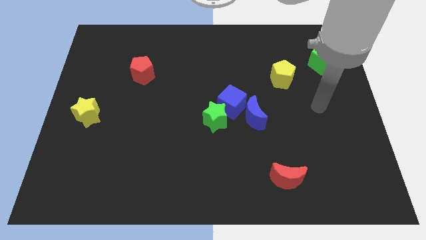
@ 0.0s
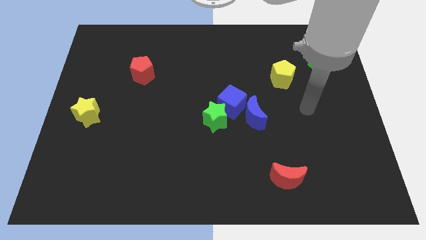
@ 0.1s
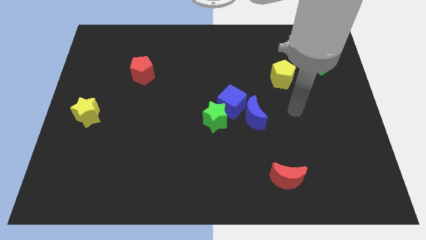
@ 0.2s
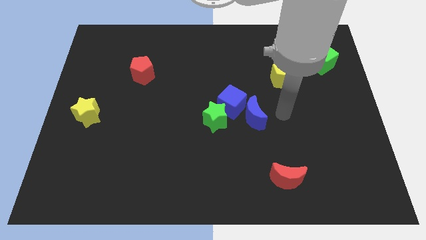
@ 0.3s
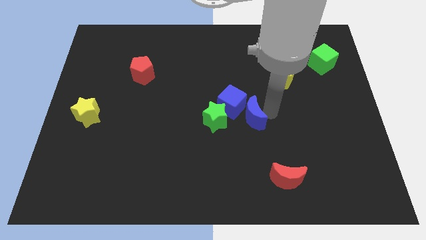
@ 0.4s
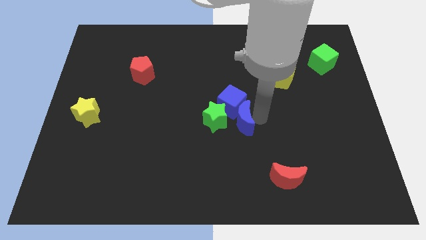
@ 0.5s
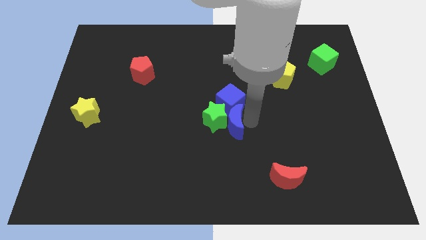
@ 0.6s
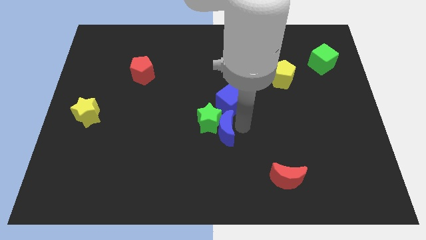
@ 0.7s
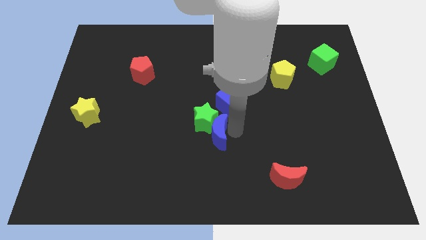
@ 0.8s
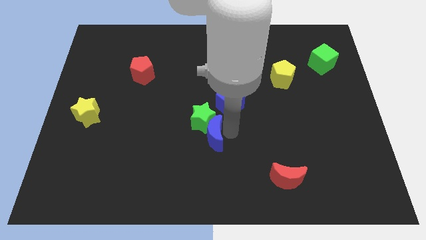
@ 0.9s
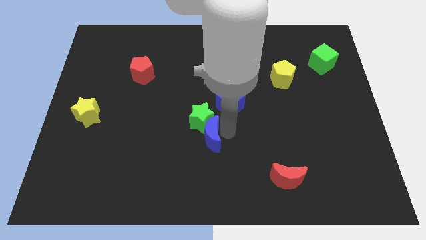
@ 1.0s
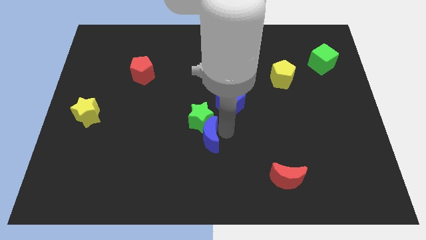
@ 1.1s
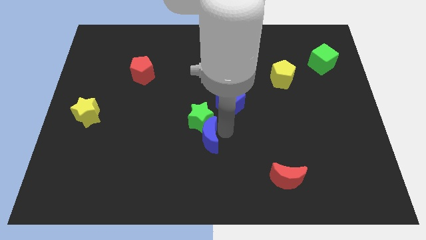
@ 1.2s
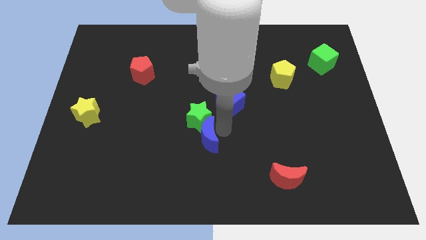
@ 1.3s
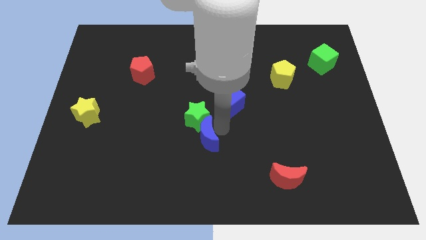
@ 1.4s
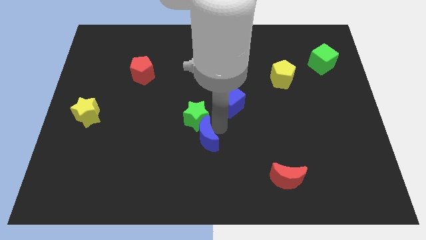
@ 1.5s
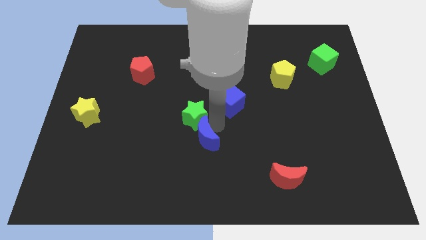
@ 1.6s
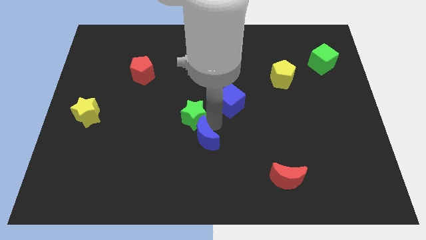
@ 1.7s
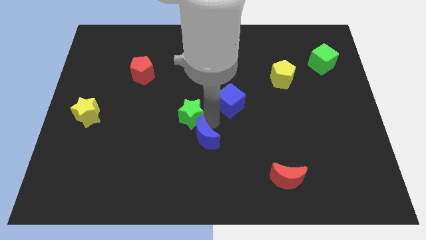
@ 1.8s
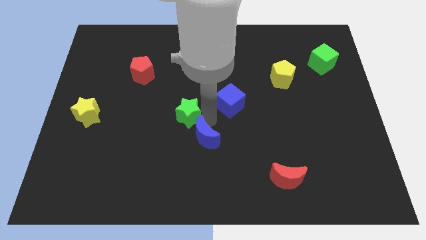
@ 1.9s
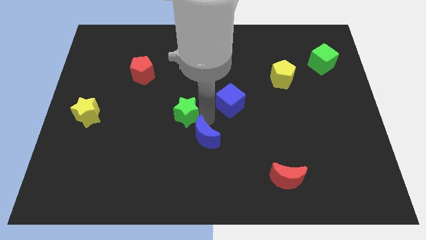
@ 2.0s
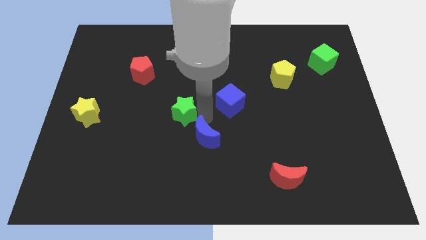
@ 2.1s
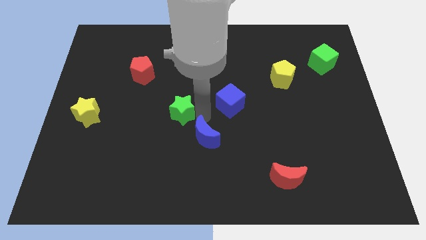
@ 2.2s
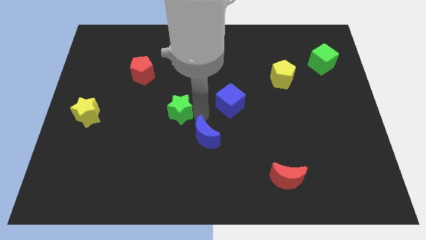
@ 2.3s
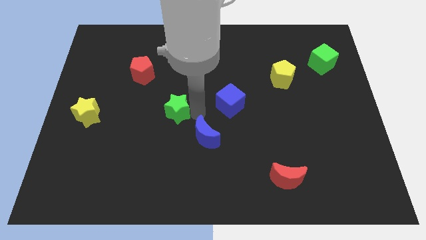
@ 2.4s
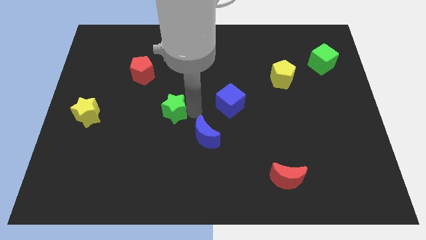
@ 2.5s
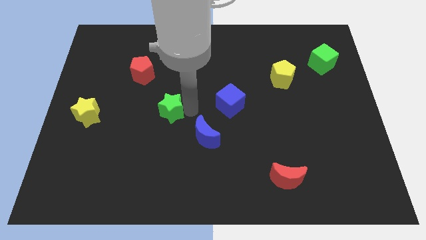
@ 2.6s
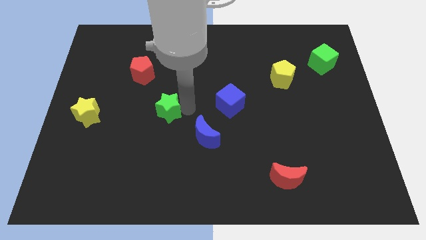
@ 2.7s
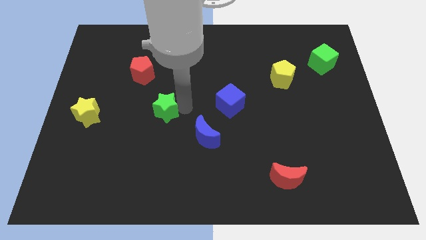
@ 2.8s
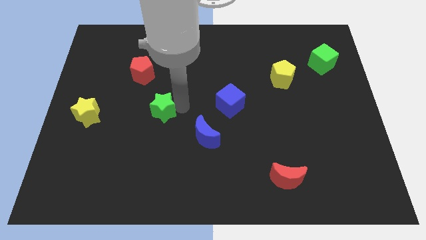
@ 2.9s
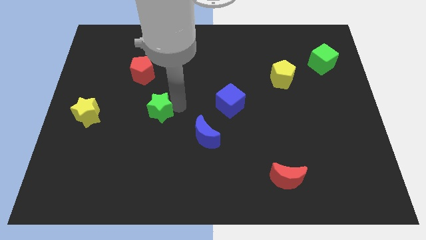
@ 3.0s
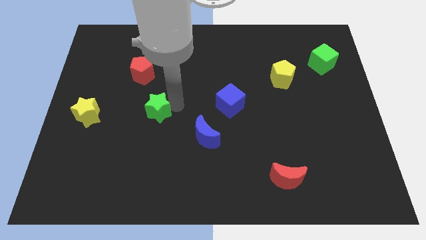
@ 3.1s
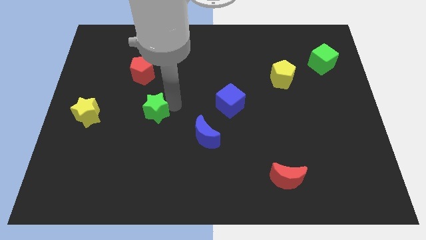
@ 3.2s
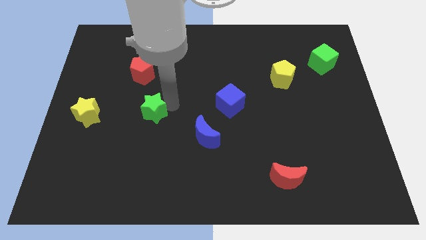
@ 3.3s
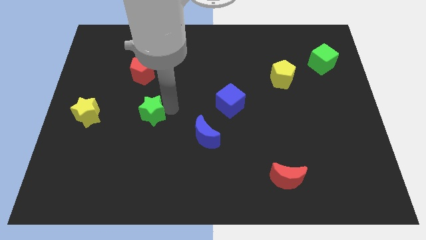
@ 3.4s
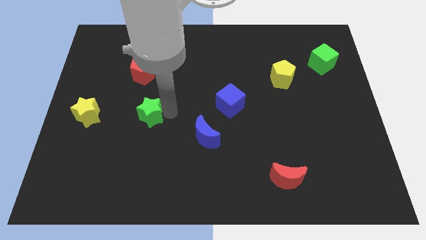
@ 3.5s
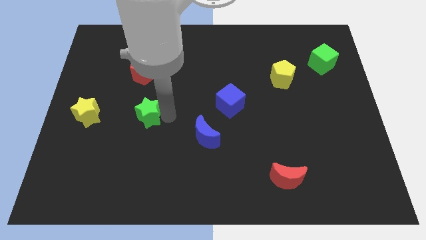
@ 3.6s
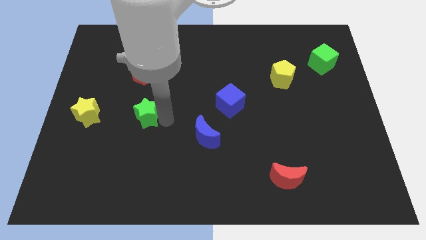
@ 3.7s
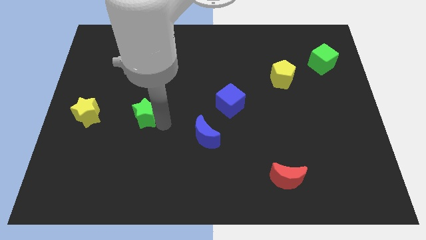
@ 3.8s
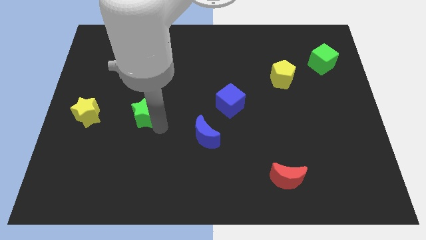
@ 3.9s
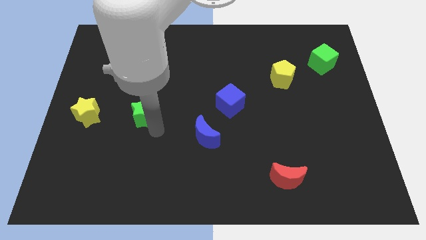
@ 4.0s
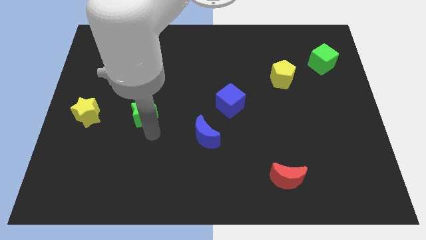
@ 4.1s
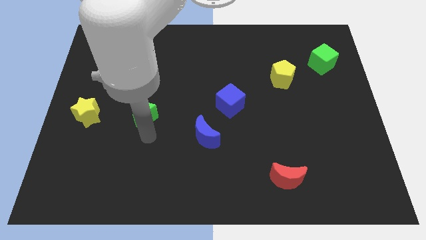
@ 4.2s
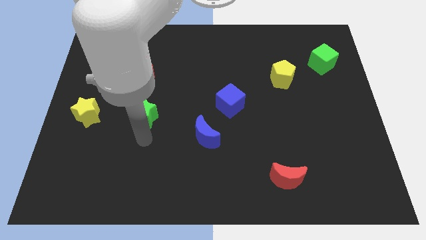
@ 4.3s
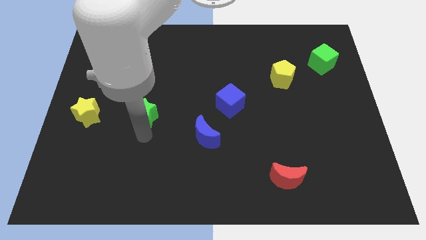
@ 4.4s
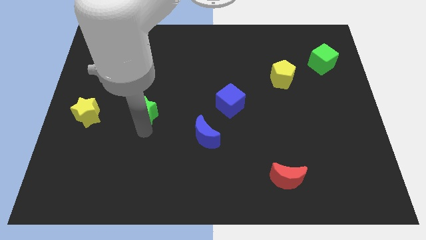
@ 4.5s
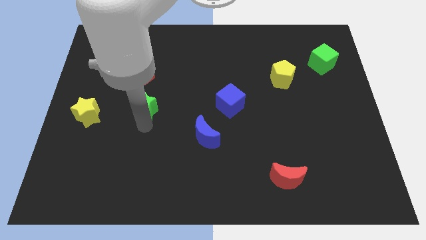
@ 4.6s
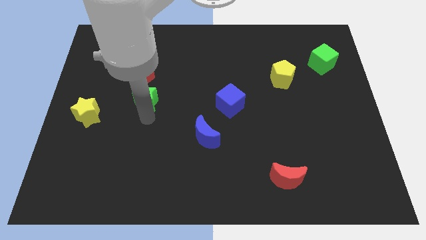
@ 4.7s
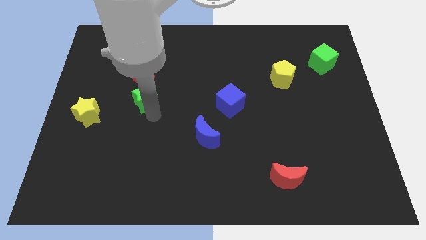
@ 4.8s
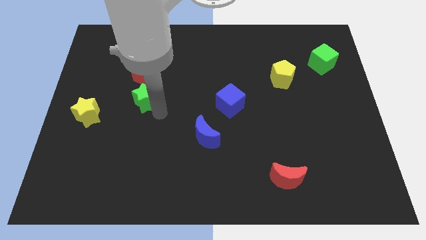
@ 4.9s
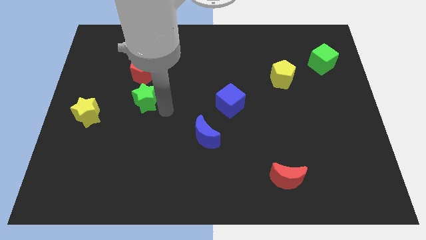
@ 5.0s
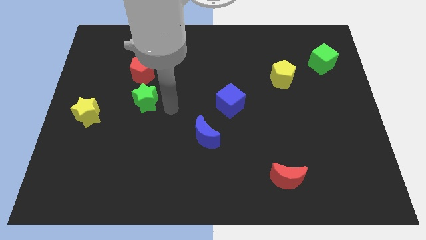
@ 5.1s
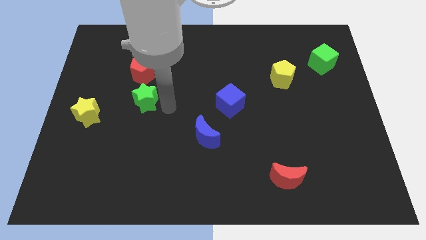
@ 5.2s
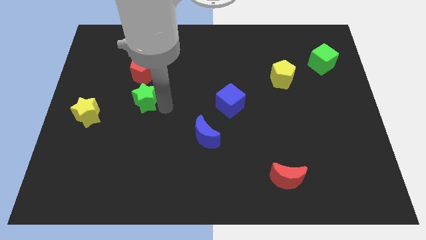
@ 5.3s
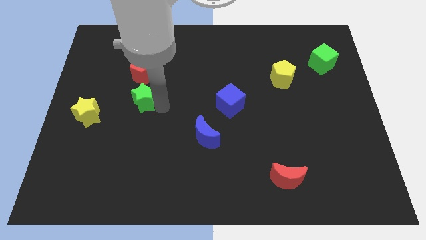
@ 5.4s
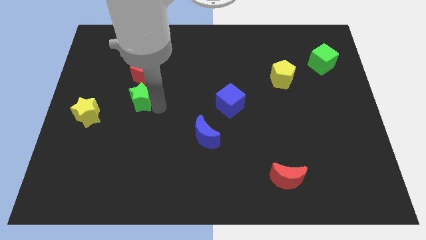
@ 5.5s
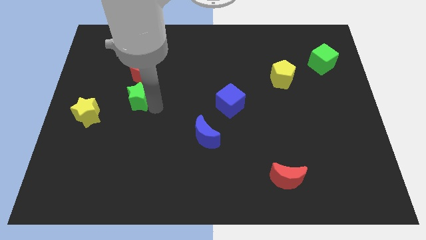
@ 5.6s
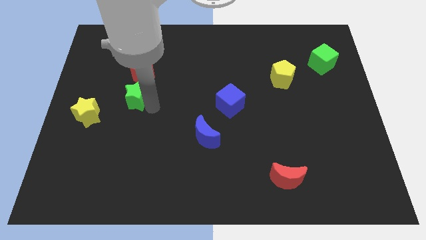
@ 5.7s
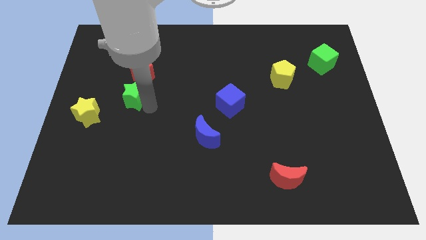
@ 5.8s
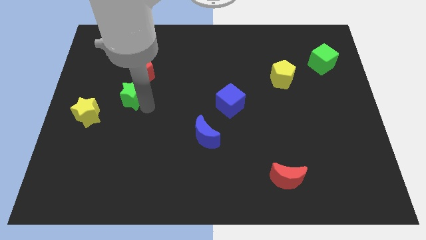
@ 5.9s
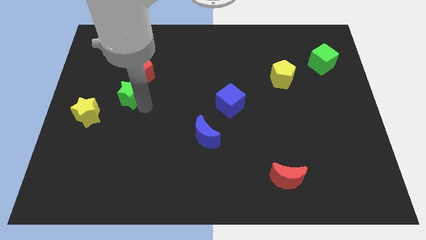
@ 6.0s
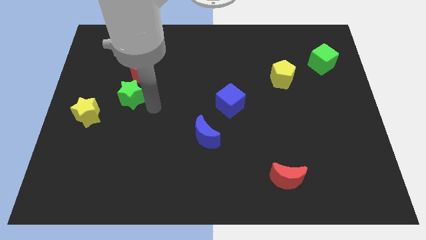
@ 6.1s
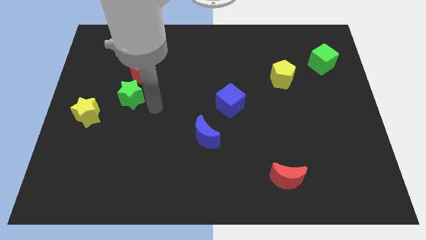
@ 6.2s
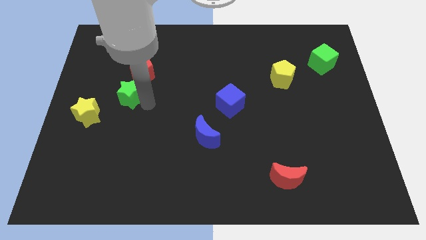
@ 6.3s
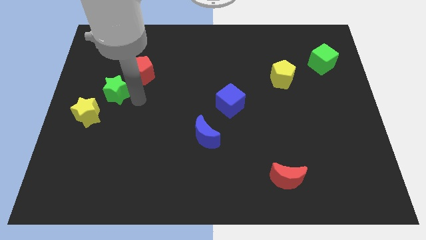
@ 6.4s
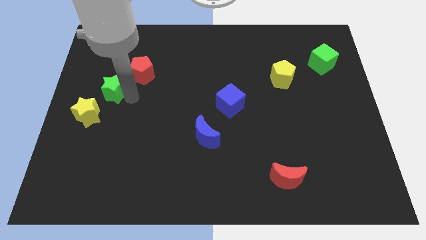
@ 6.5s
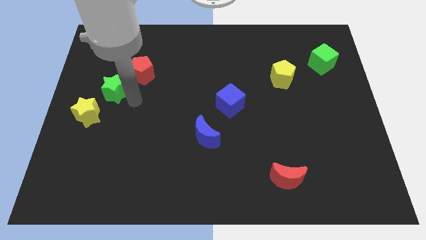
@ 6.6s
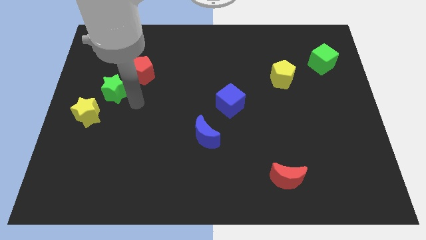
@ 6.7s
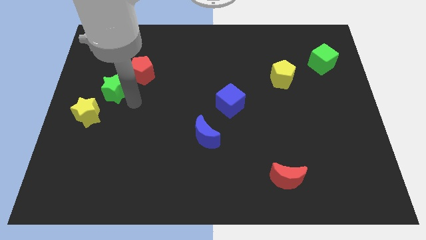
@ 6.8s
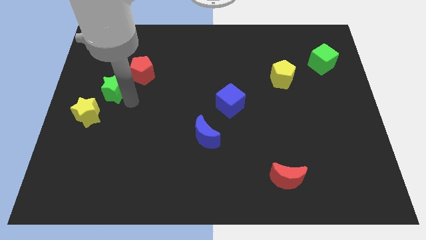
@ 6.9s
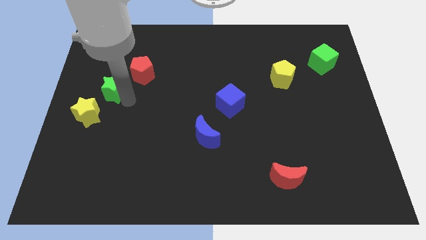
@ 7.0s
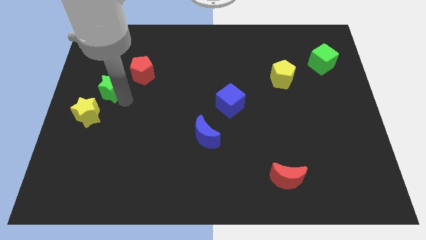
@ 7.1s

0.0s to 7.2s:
put the green star above the yellow star
